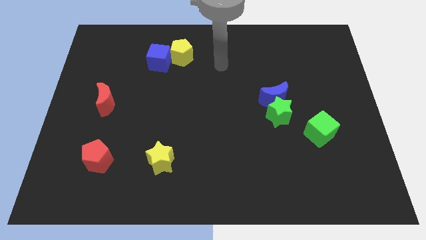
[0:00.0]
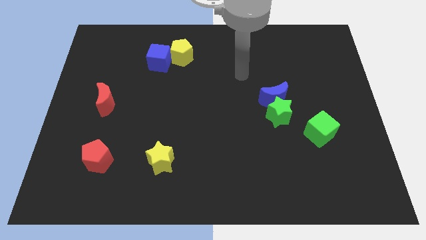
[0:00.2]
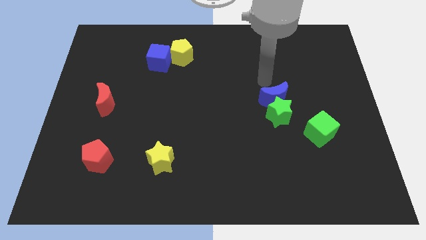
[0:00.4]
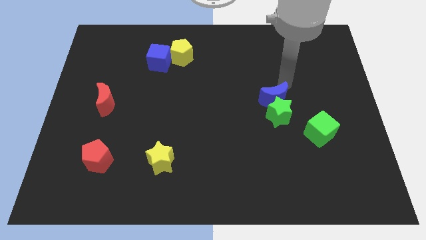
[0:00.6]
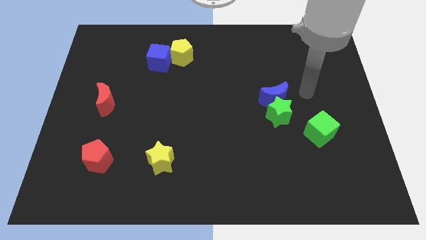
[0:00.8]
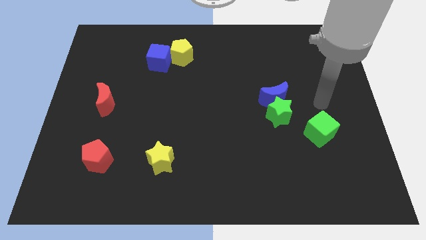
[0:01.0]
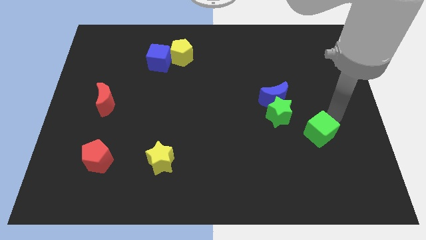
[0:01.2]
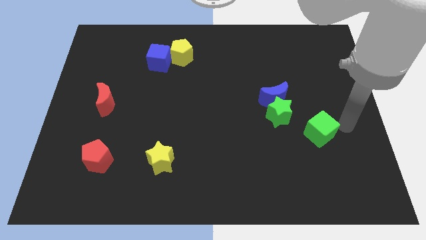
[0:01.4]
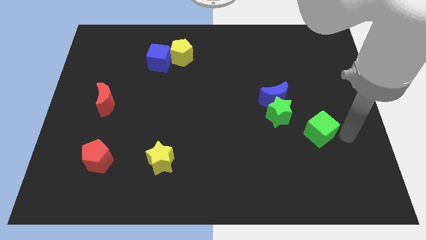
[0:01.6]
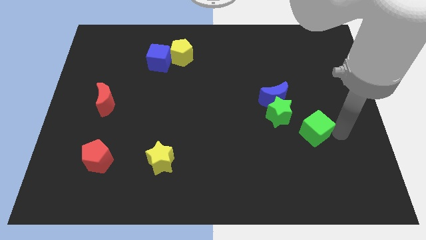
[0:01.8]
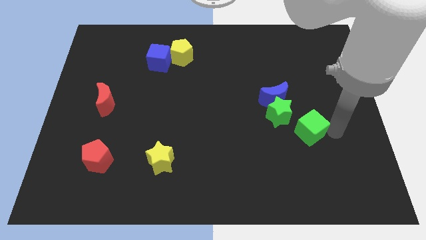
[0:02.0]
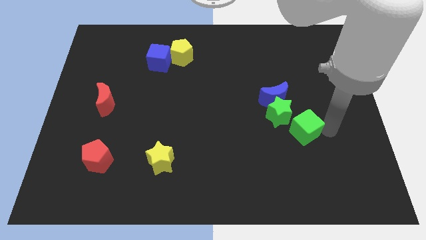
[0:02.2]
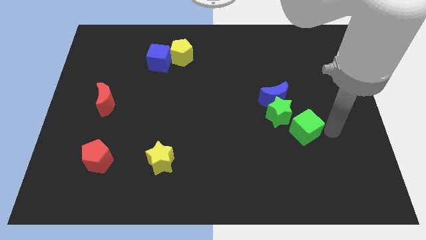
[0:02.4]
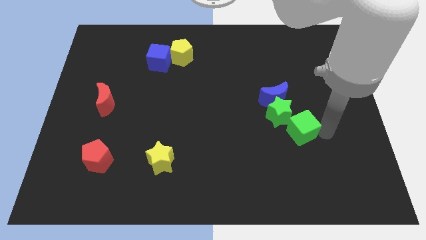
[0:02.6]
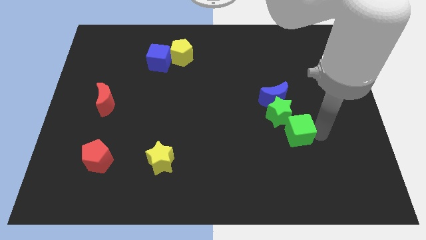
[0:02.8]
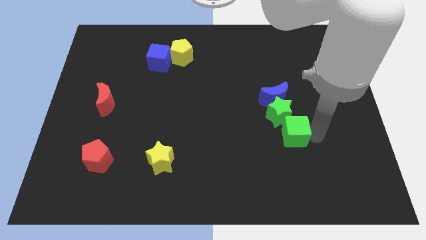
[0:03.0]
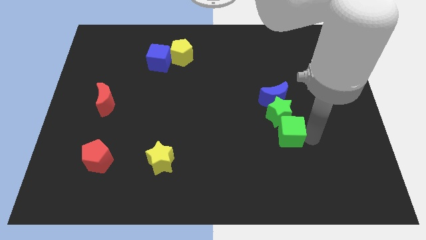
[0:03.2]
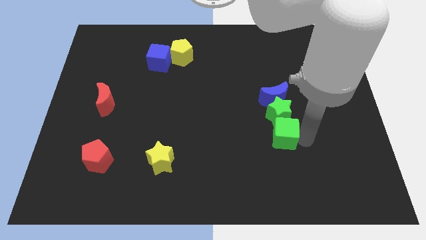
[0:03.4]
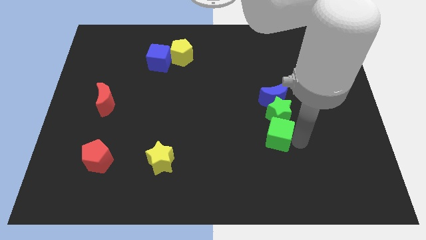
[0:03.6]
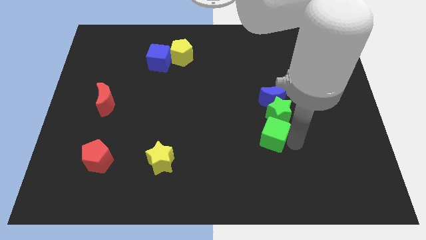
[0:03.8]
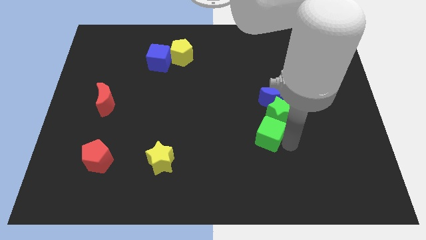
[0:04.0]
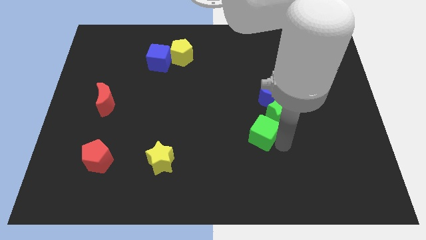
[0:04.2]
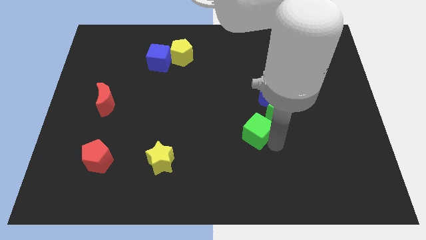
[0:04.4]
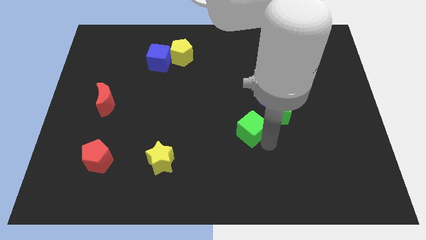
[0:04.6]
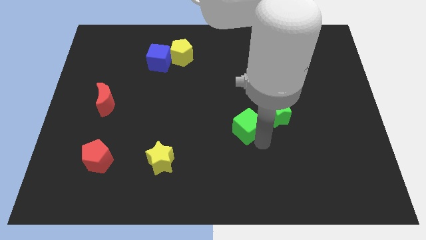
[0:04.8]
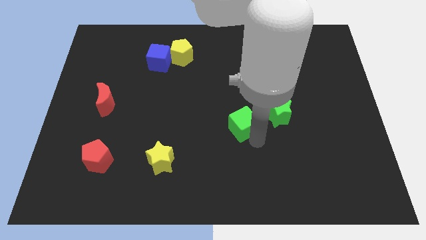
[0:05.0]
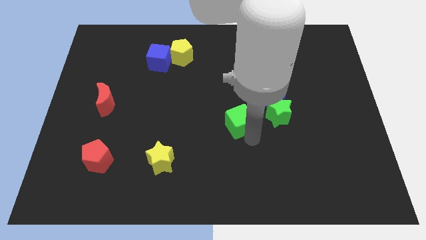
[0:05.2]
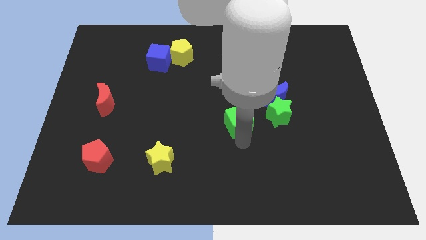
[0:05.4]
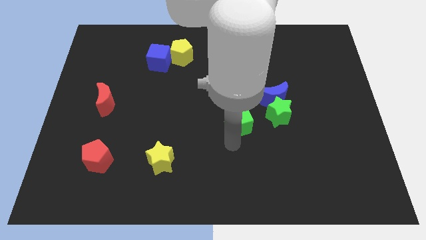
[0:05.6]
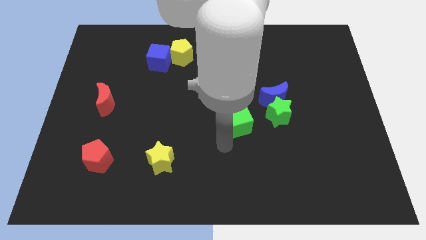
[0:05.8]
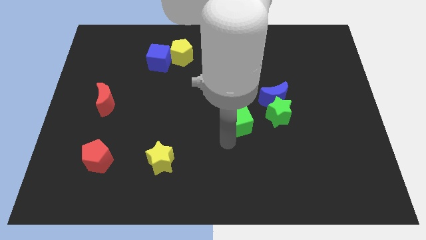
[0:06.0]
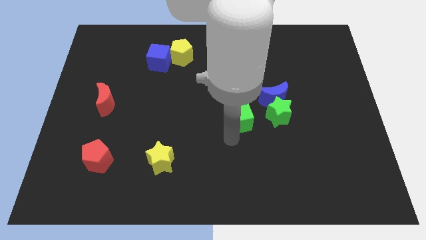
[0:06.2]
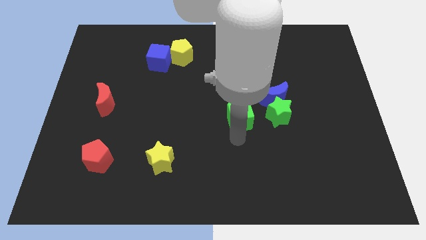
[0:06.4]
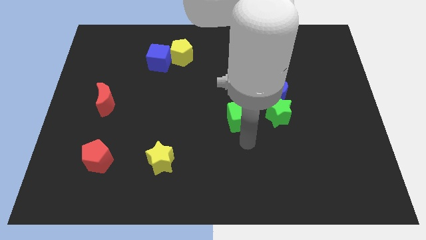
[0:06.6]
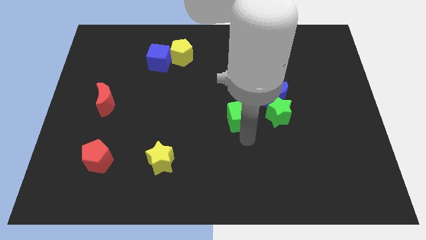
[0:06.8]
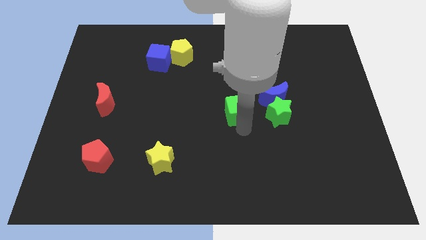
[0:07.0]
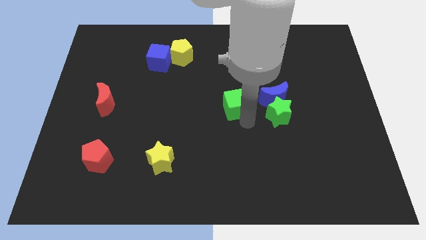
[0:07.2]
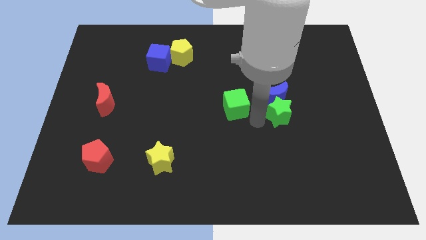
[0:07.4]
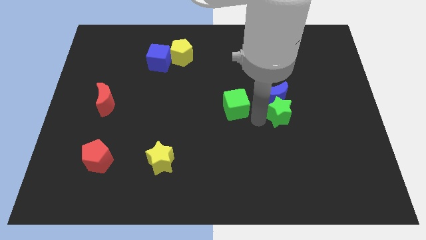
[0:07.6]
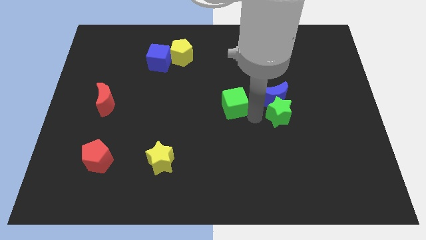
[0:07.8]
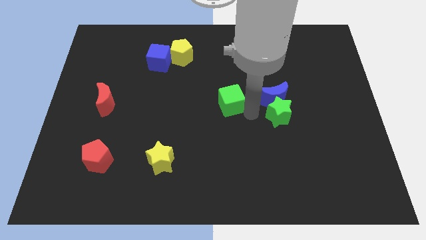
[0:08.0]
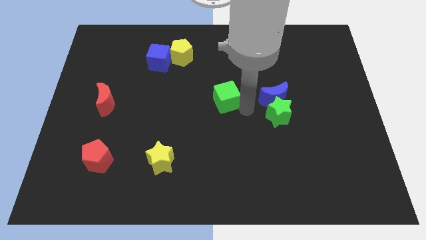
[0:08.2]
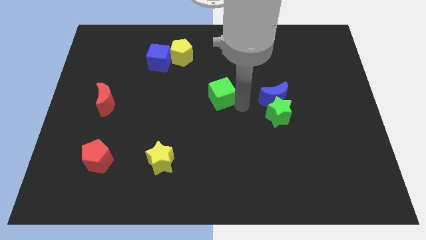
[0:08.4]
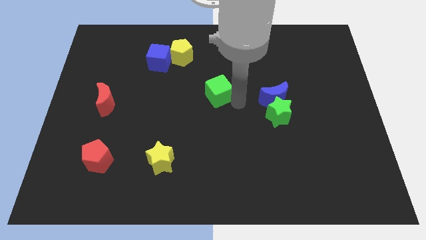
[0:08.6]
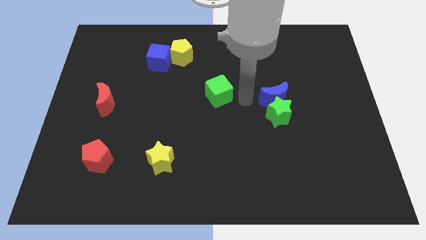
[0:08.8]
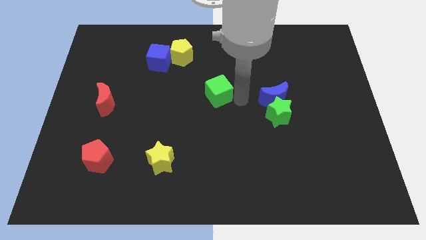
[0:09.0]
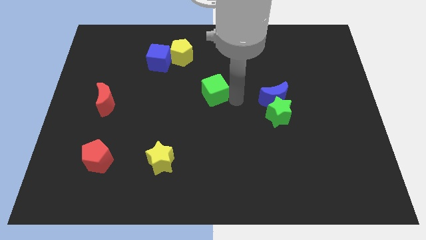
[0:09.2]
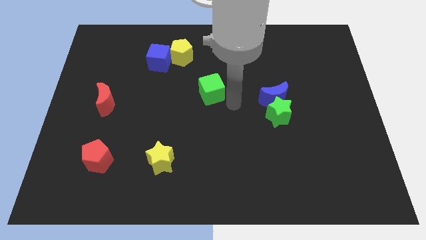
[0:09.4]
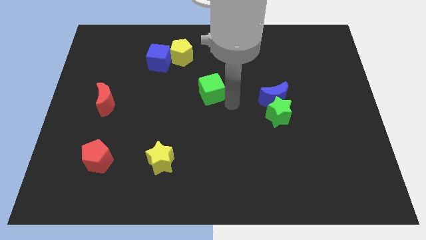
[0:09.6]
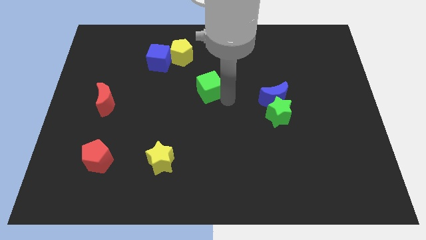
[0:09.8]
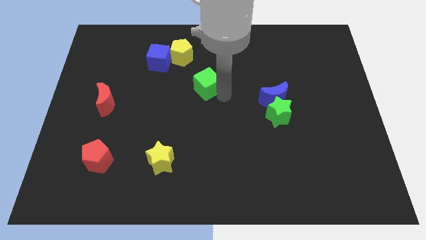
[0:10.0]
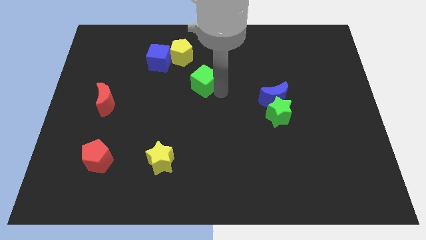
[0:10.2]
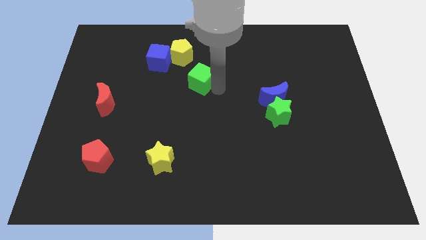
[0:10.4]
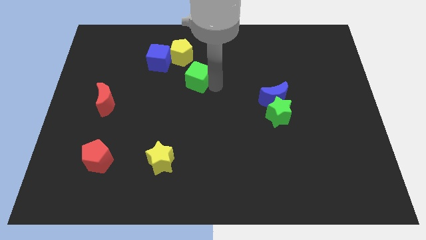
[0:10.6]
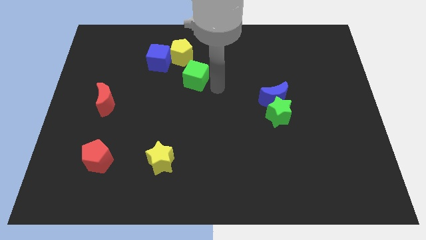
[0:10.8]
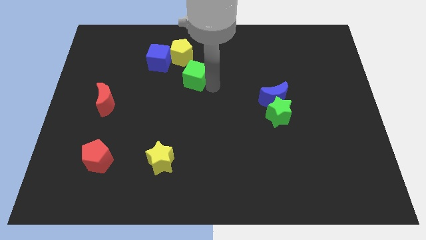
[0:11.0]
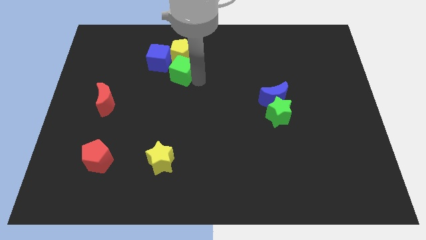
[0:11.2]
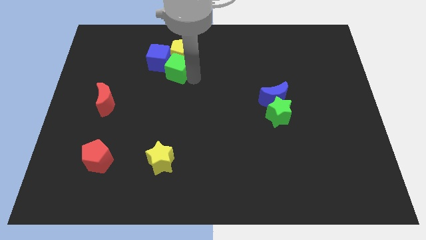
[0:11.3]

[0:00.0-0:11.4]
push the green cube close to the blue cube

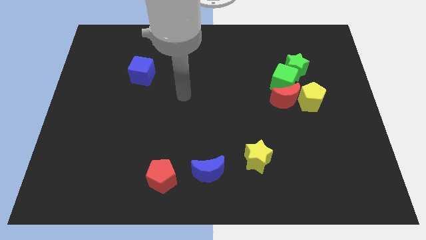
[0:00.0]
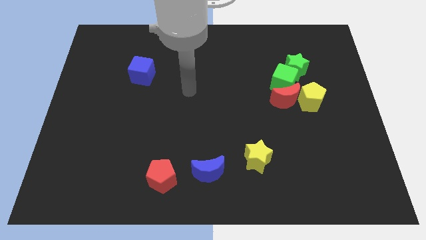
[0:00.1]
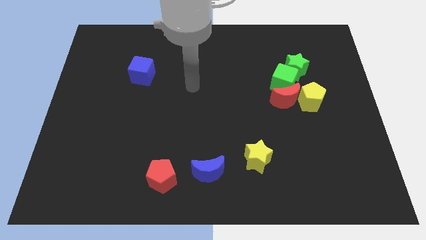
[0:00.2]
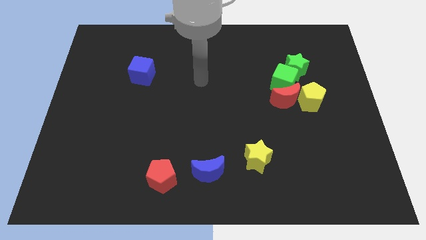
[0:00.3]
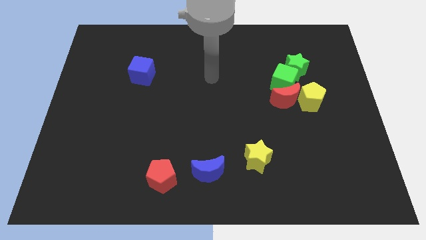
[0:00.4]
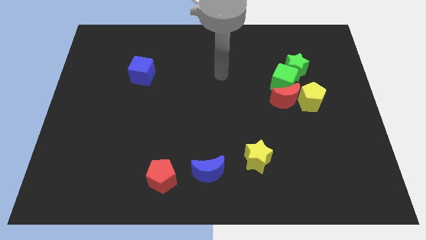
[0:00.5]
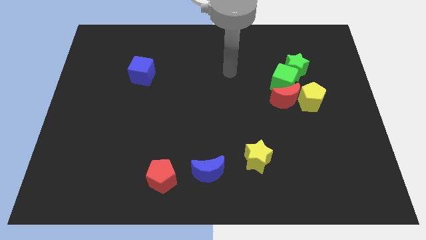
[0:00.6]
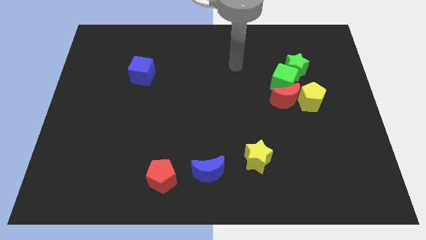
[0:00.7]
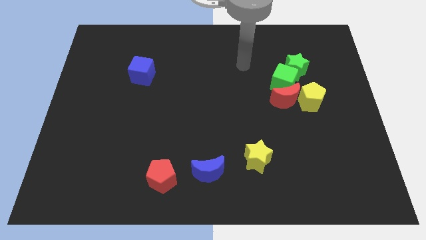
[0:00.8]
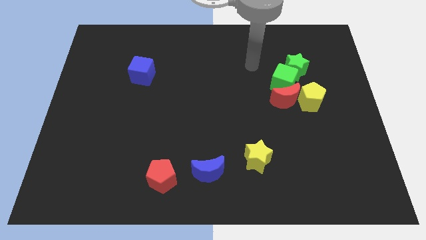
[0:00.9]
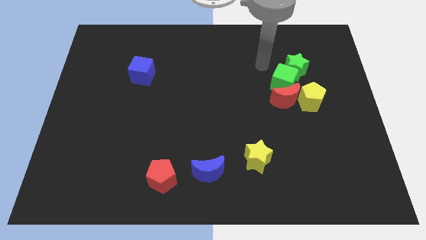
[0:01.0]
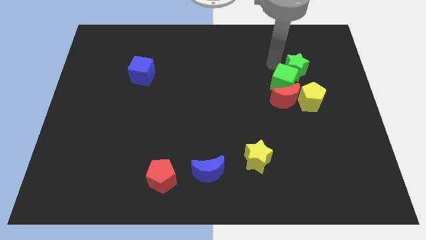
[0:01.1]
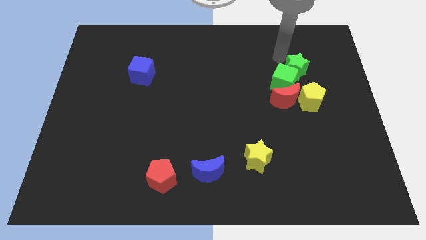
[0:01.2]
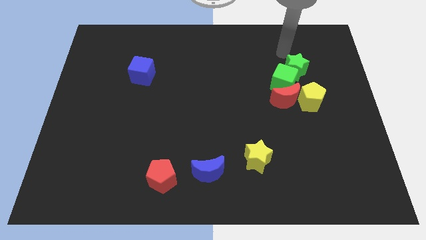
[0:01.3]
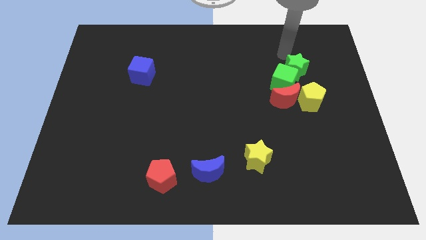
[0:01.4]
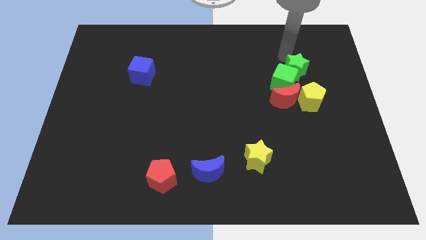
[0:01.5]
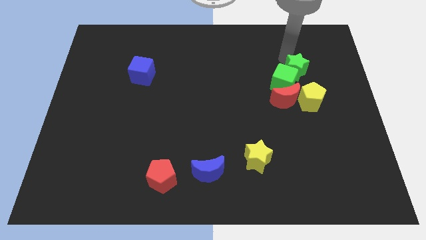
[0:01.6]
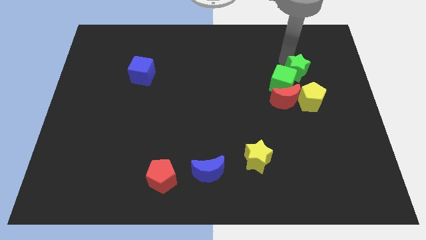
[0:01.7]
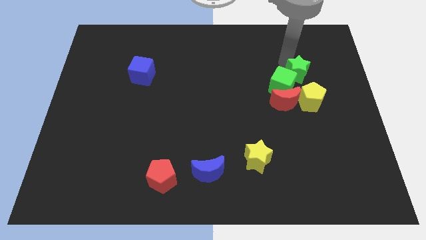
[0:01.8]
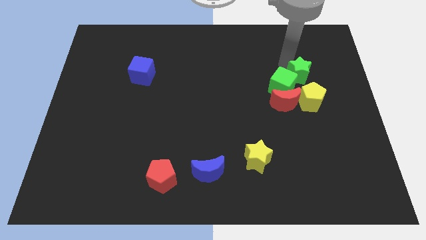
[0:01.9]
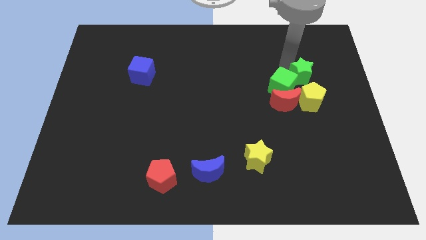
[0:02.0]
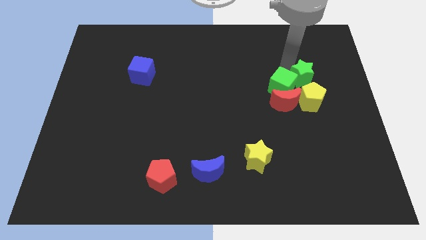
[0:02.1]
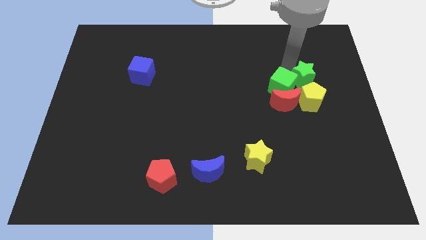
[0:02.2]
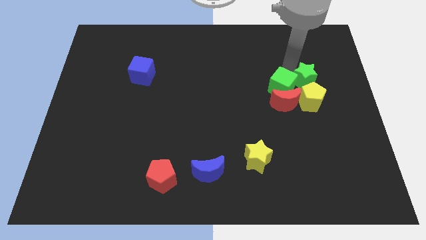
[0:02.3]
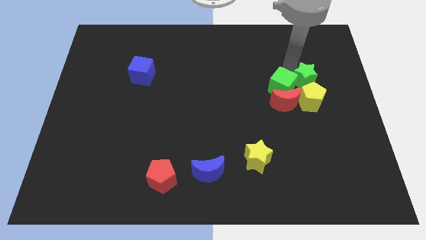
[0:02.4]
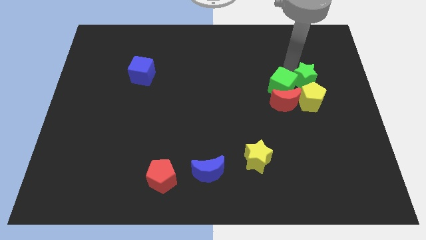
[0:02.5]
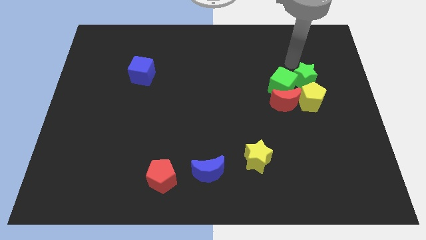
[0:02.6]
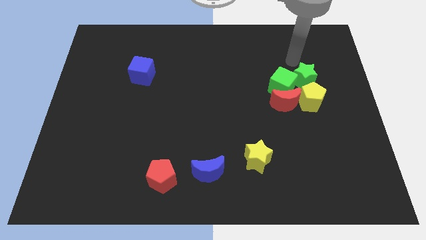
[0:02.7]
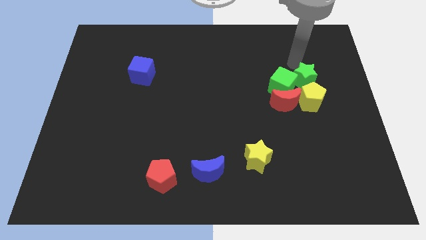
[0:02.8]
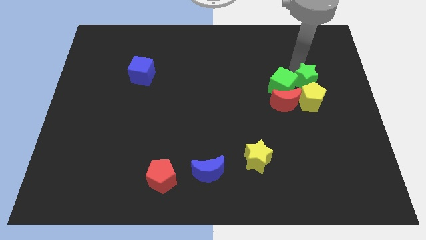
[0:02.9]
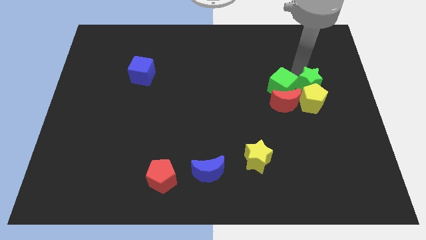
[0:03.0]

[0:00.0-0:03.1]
put the green star next to the yellow pentagon
